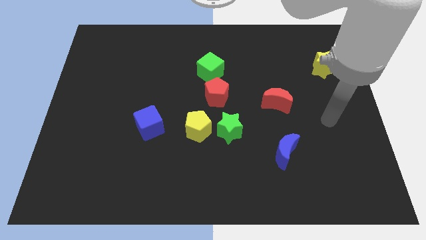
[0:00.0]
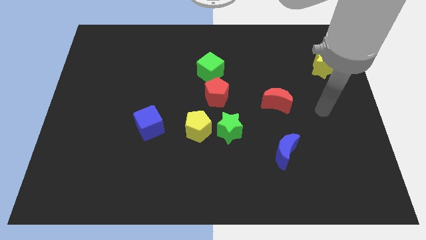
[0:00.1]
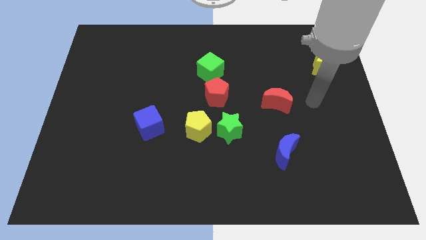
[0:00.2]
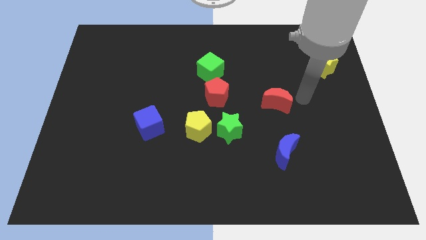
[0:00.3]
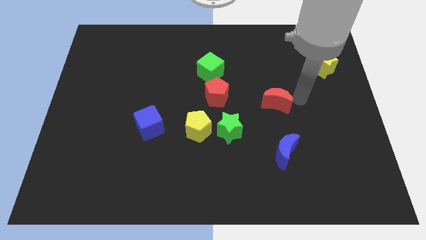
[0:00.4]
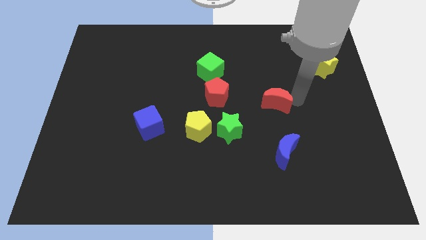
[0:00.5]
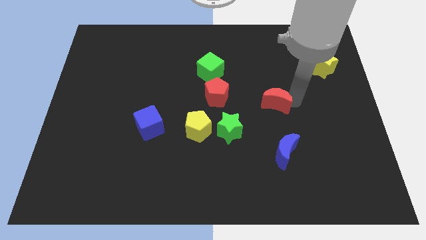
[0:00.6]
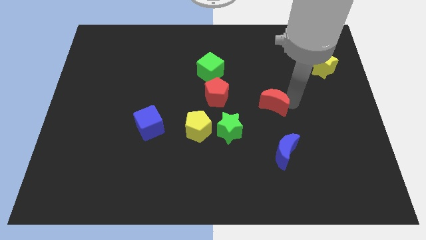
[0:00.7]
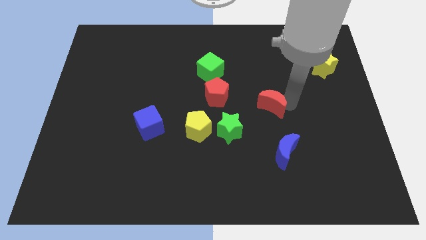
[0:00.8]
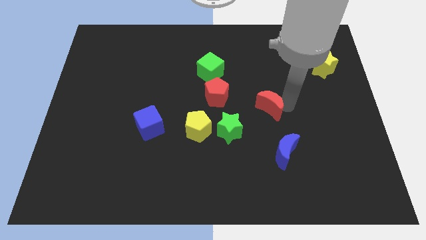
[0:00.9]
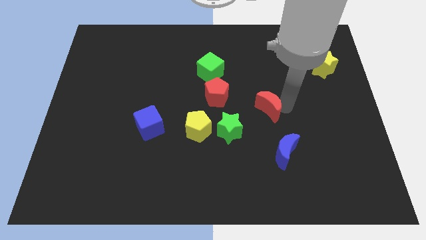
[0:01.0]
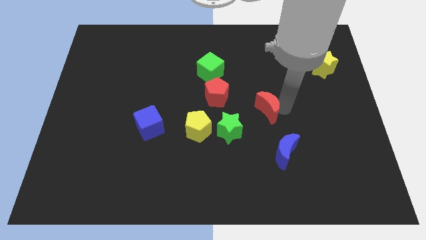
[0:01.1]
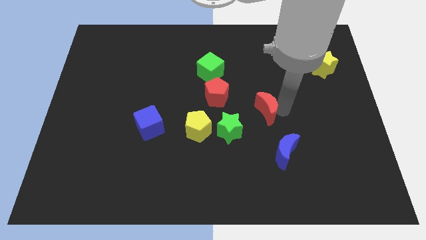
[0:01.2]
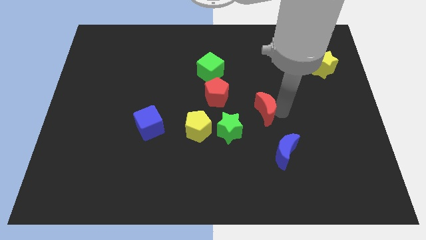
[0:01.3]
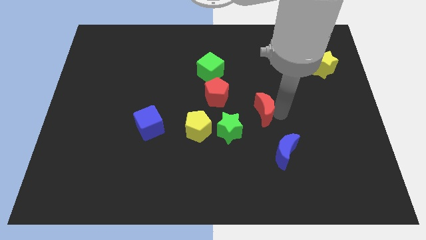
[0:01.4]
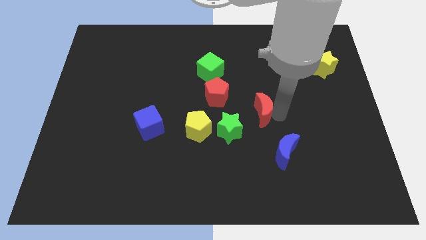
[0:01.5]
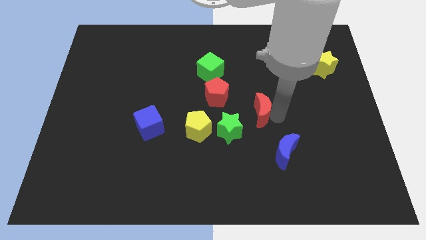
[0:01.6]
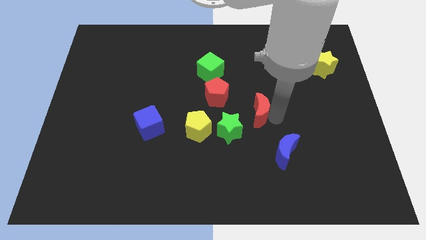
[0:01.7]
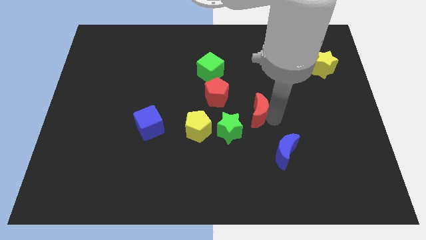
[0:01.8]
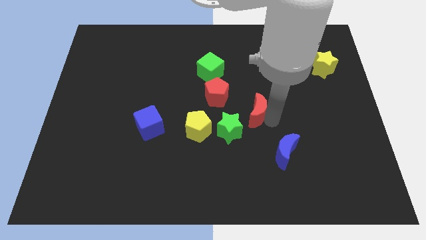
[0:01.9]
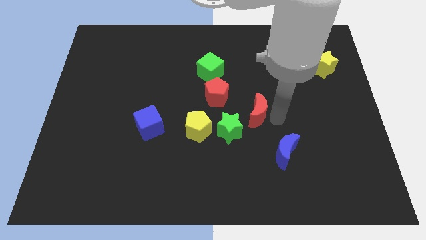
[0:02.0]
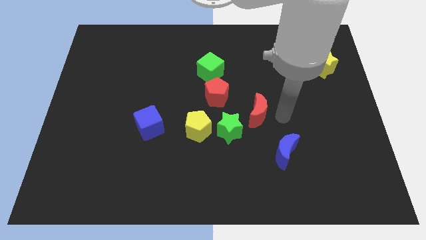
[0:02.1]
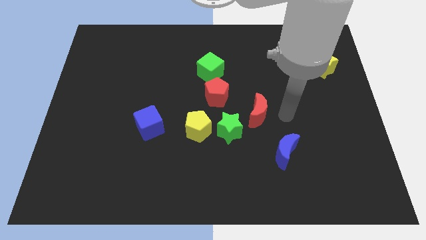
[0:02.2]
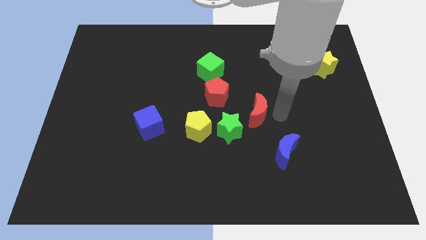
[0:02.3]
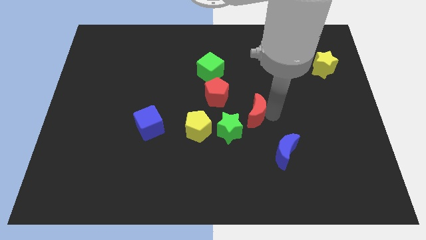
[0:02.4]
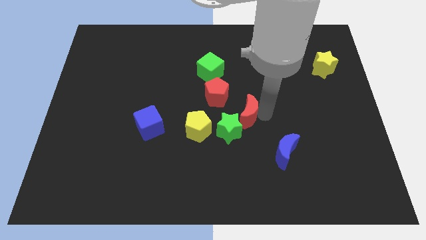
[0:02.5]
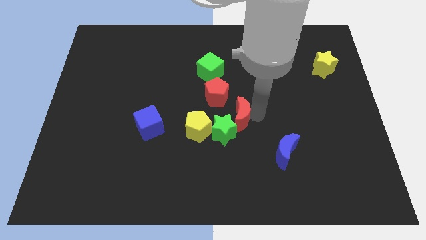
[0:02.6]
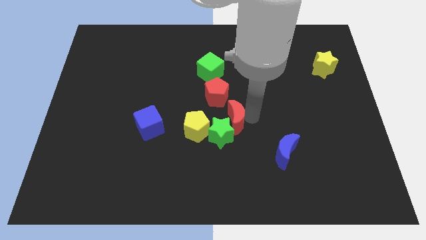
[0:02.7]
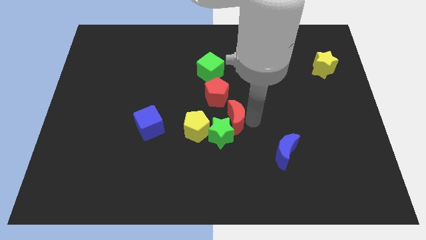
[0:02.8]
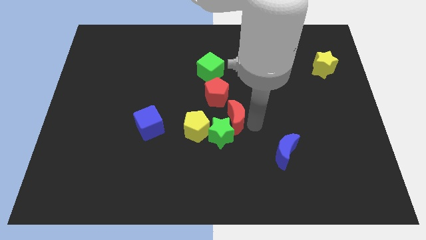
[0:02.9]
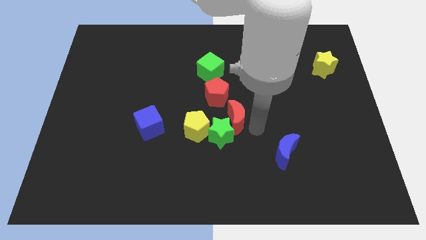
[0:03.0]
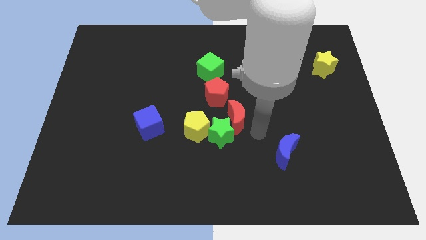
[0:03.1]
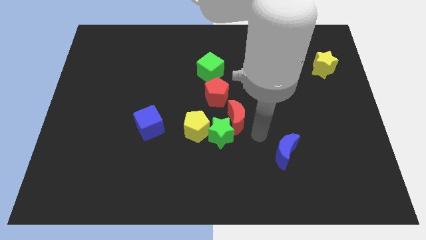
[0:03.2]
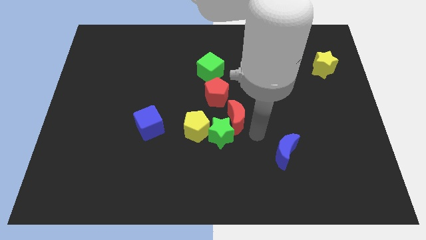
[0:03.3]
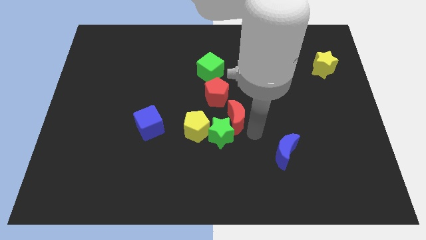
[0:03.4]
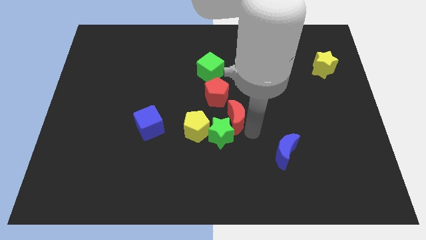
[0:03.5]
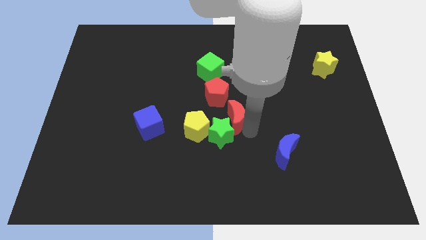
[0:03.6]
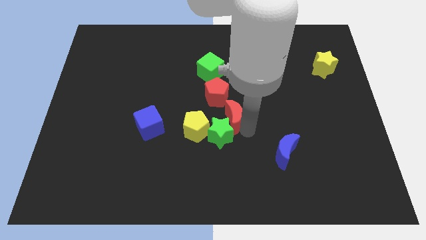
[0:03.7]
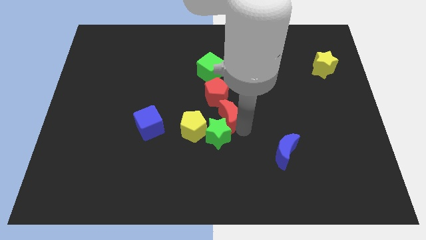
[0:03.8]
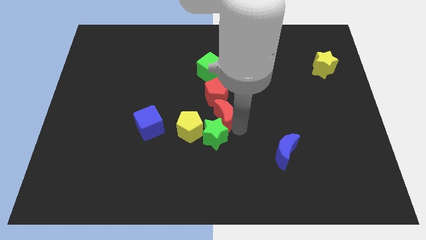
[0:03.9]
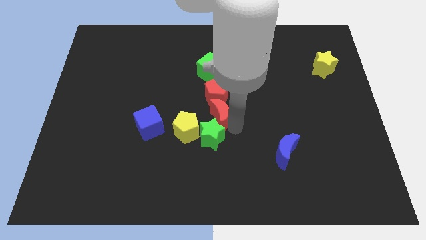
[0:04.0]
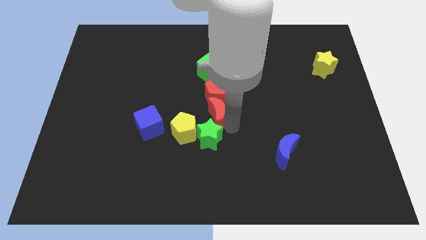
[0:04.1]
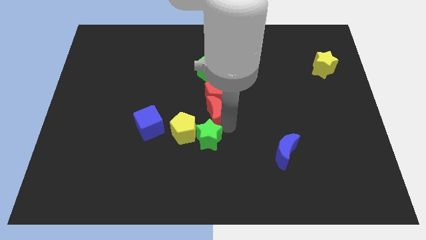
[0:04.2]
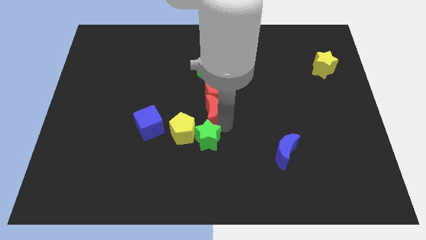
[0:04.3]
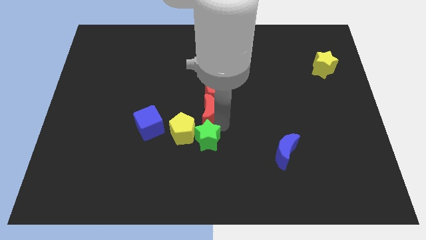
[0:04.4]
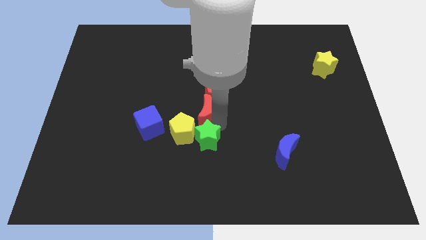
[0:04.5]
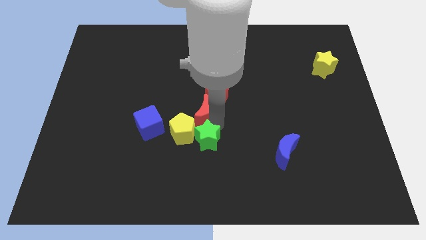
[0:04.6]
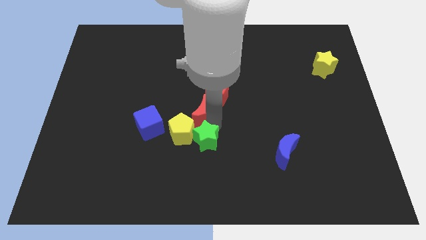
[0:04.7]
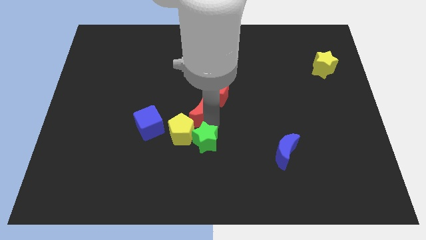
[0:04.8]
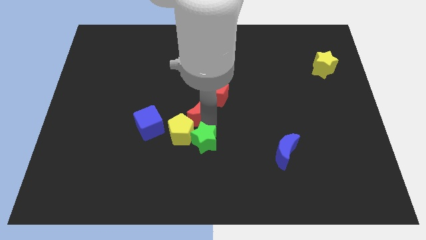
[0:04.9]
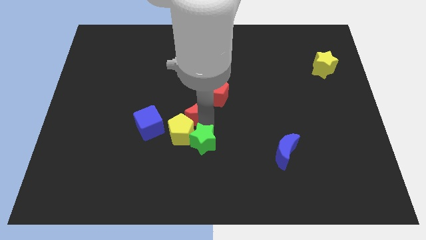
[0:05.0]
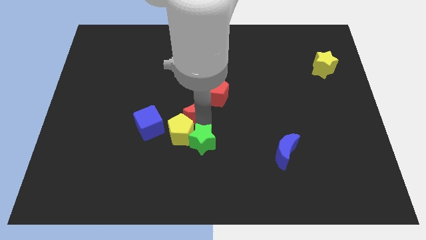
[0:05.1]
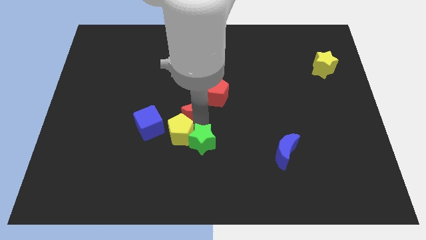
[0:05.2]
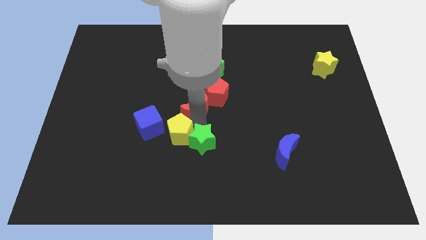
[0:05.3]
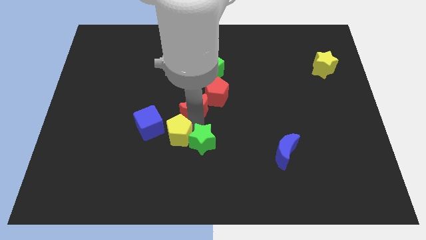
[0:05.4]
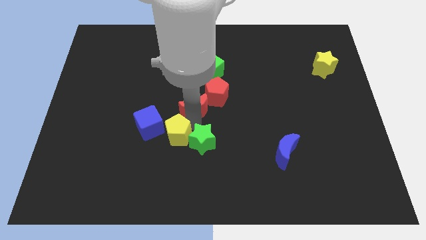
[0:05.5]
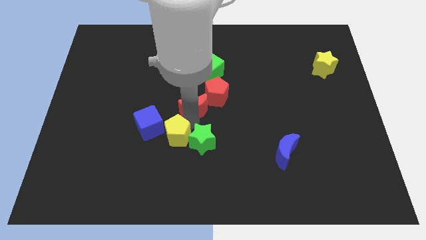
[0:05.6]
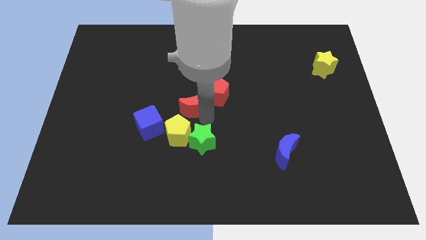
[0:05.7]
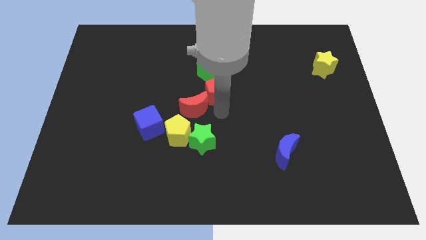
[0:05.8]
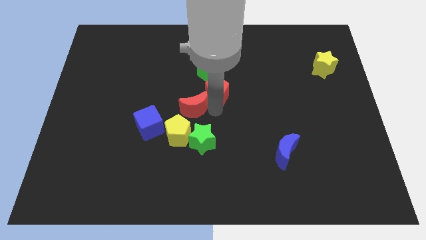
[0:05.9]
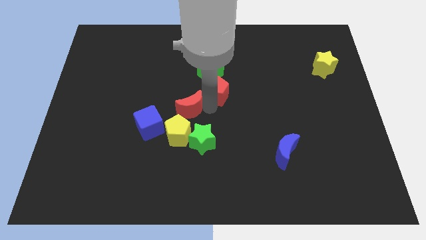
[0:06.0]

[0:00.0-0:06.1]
move the red moon to the left

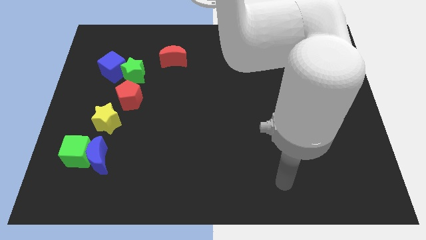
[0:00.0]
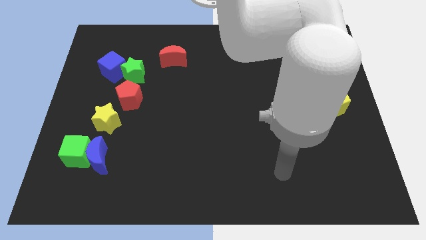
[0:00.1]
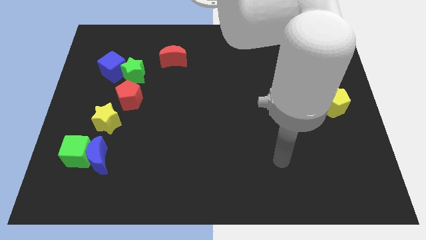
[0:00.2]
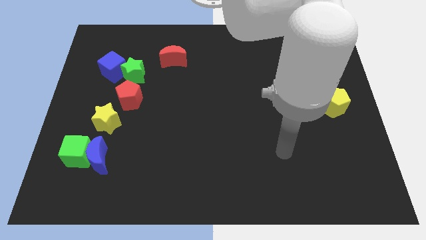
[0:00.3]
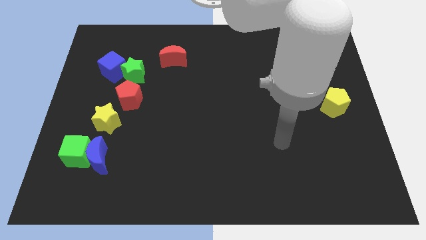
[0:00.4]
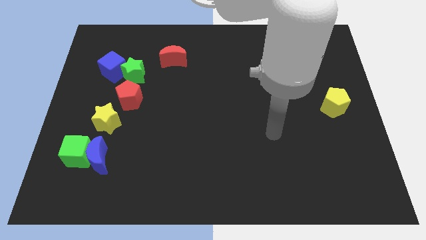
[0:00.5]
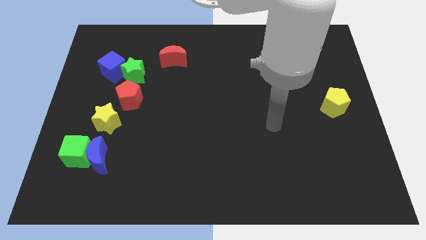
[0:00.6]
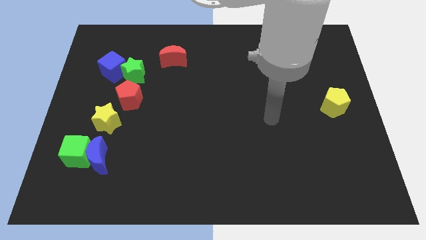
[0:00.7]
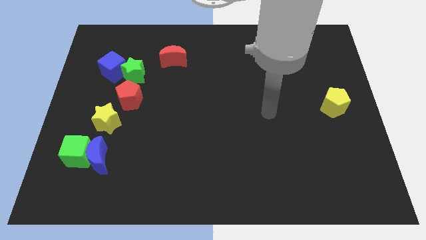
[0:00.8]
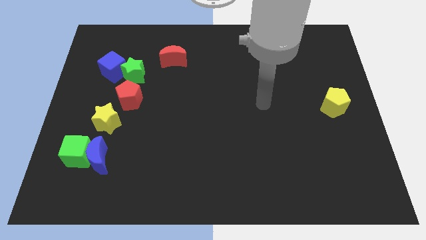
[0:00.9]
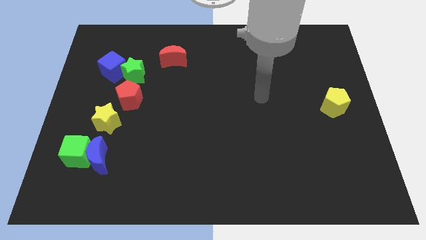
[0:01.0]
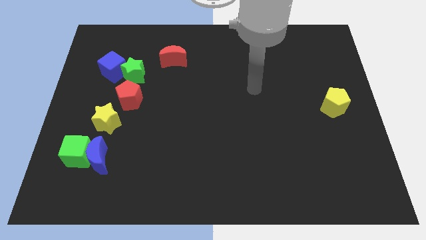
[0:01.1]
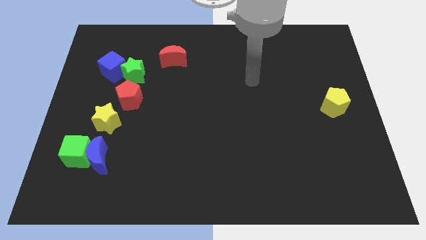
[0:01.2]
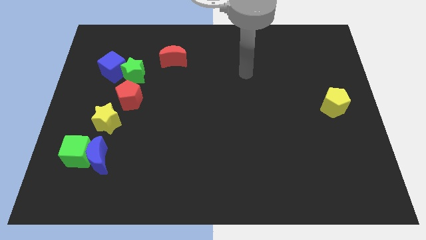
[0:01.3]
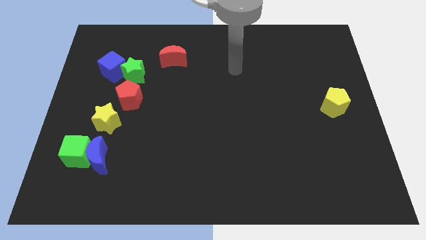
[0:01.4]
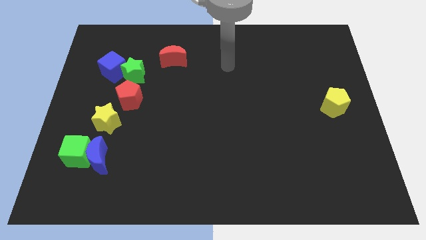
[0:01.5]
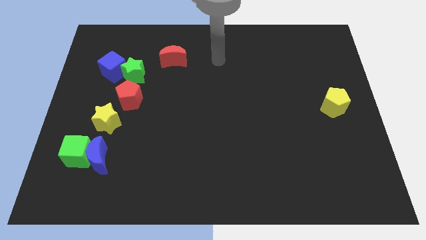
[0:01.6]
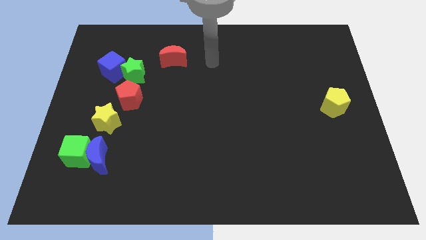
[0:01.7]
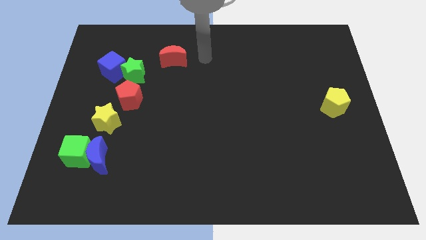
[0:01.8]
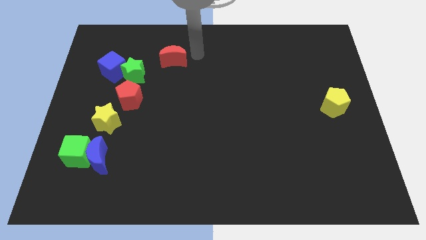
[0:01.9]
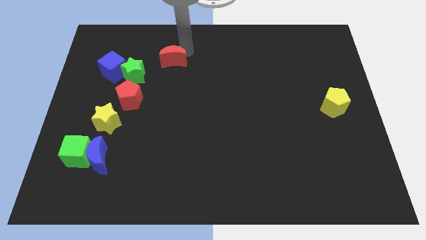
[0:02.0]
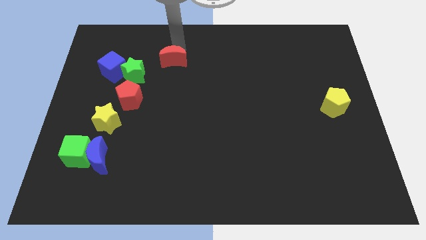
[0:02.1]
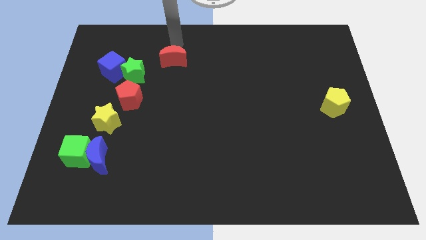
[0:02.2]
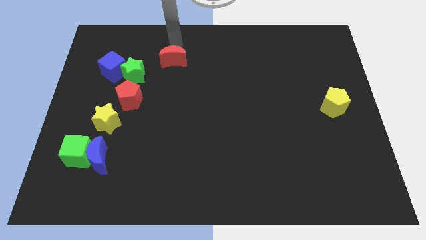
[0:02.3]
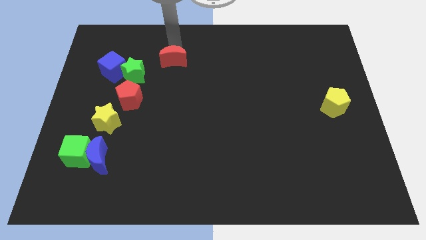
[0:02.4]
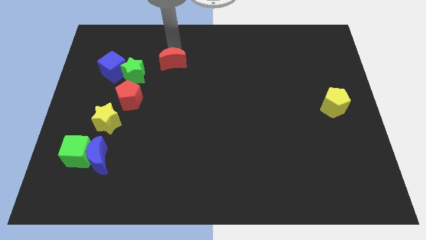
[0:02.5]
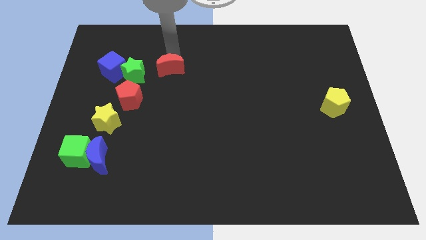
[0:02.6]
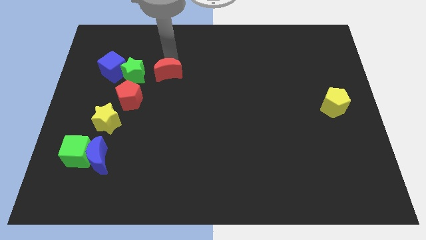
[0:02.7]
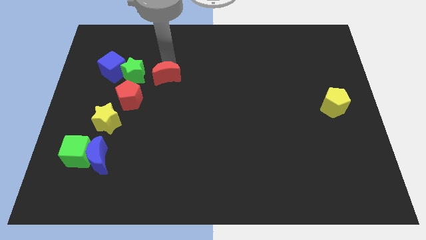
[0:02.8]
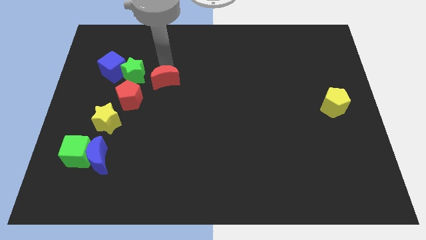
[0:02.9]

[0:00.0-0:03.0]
slide the red moon a little bit down
